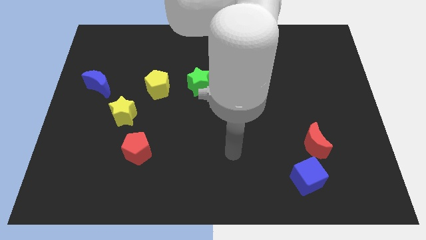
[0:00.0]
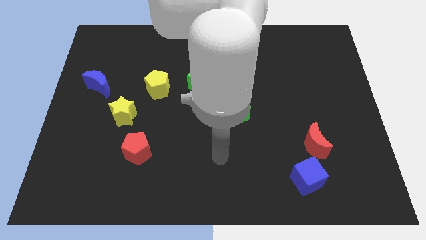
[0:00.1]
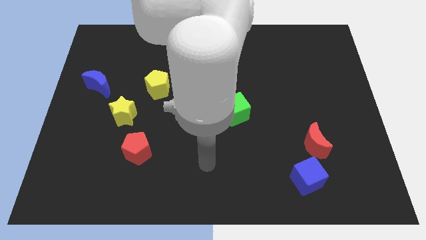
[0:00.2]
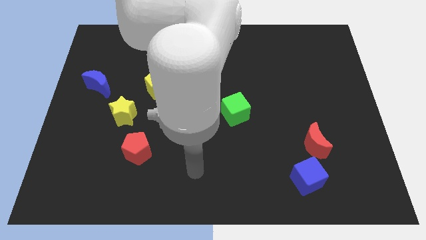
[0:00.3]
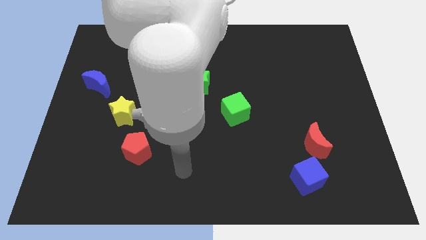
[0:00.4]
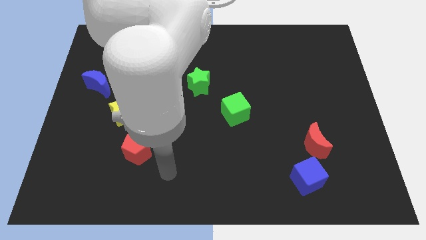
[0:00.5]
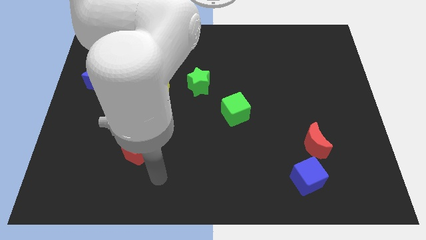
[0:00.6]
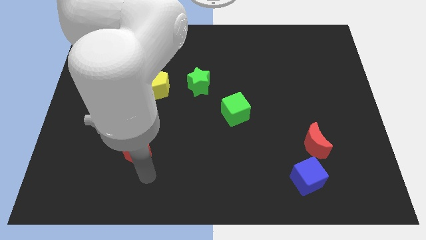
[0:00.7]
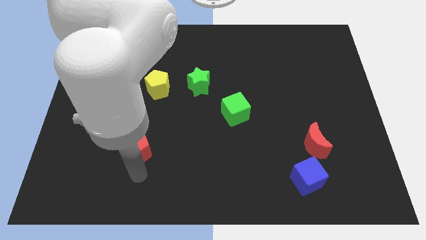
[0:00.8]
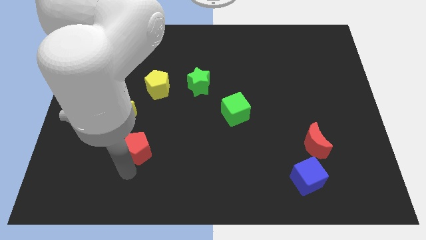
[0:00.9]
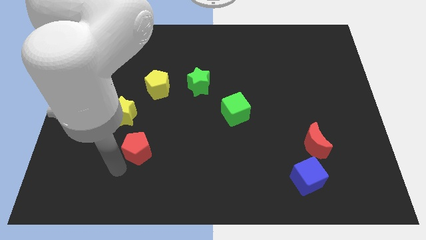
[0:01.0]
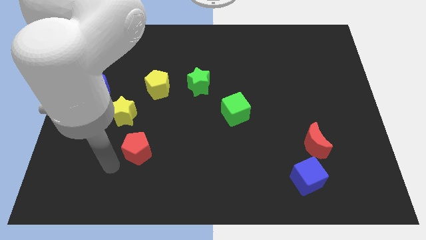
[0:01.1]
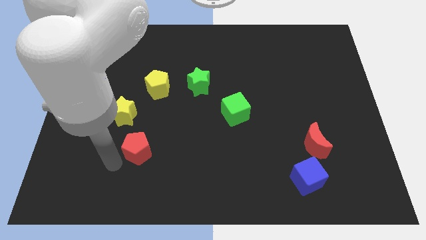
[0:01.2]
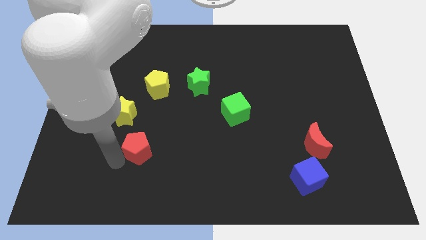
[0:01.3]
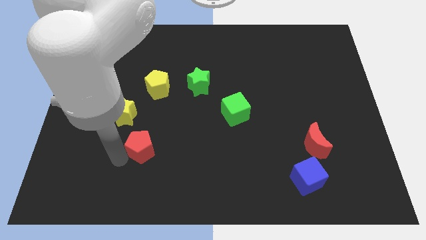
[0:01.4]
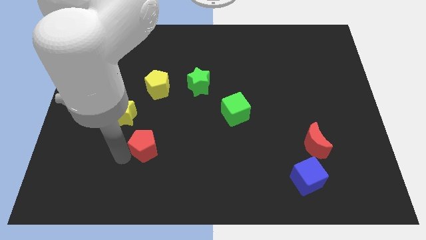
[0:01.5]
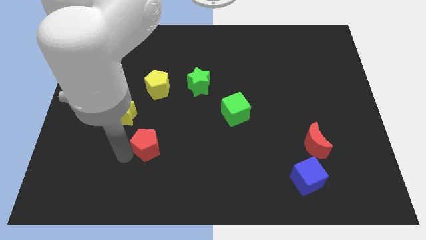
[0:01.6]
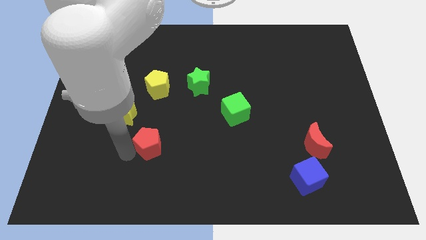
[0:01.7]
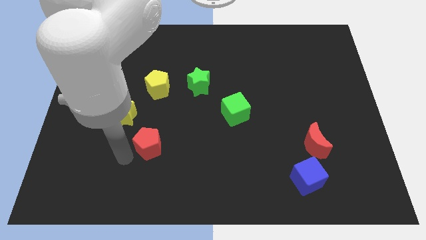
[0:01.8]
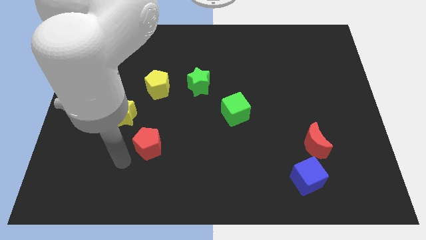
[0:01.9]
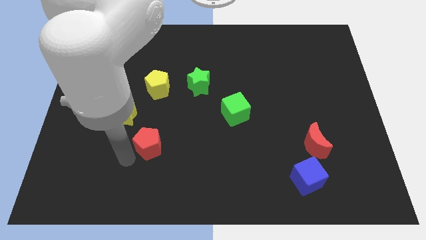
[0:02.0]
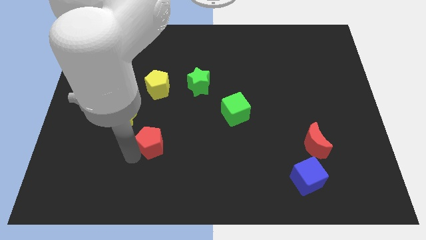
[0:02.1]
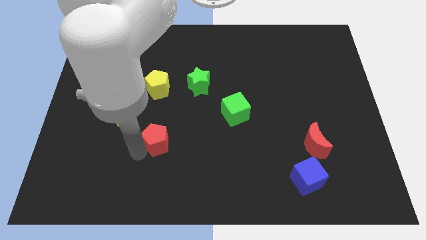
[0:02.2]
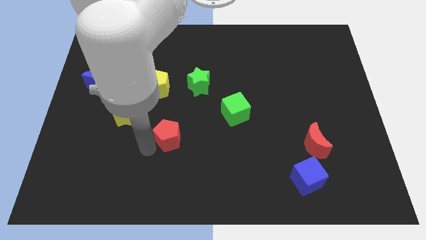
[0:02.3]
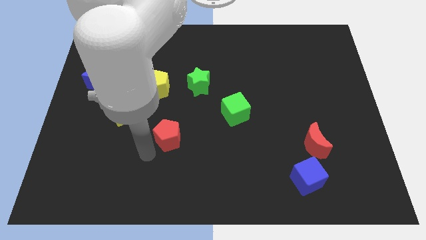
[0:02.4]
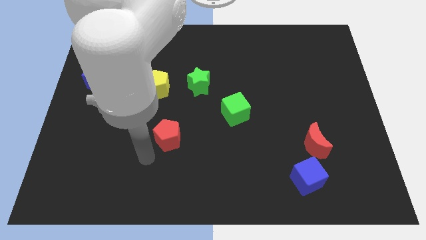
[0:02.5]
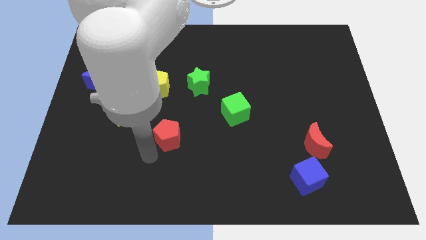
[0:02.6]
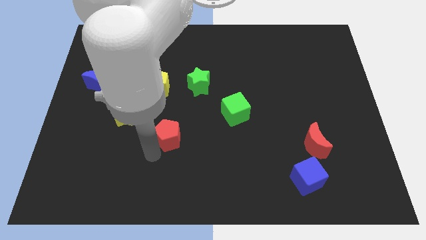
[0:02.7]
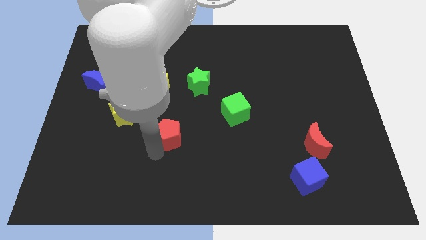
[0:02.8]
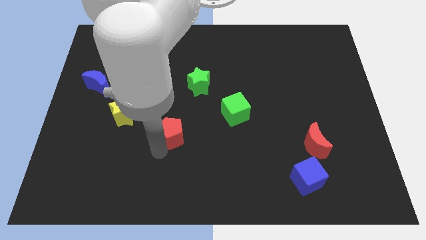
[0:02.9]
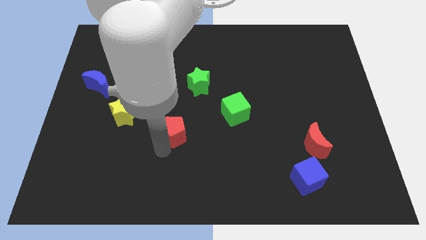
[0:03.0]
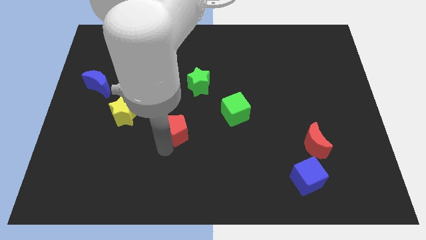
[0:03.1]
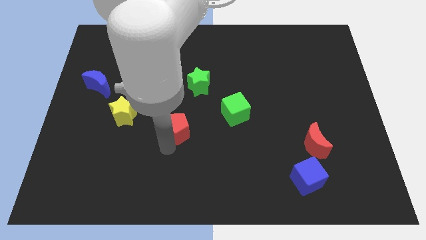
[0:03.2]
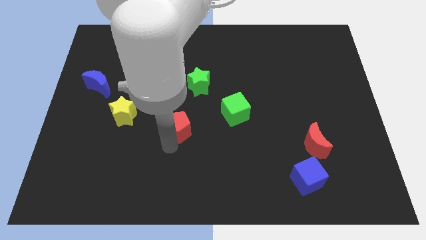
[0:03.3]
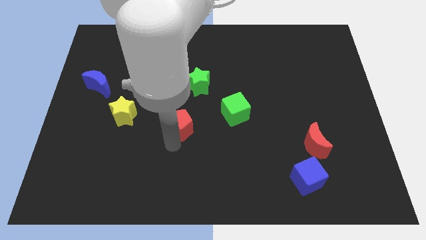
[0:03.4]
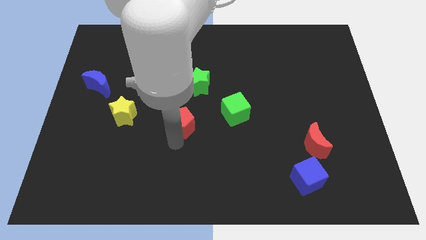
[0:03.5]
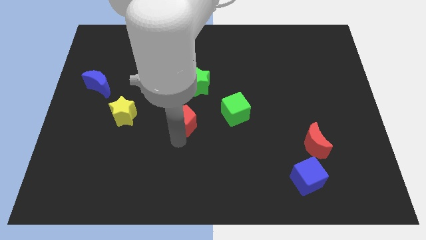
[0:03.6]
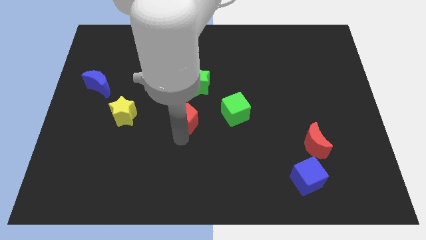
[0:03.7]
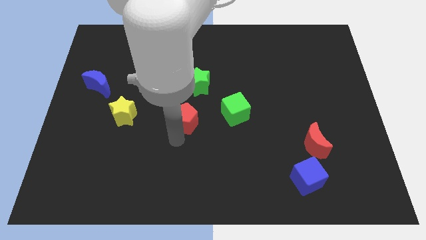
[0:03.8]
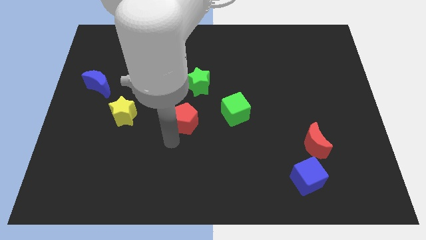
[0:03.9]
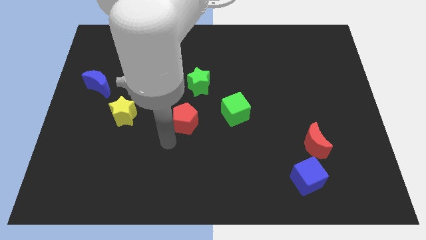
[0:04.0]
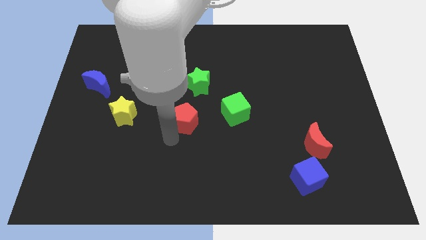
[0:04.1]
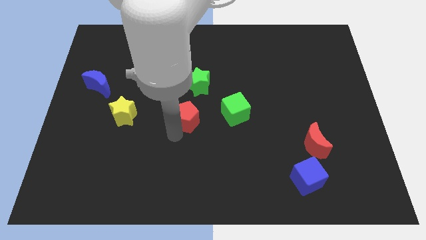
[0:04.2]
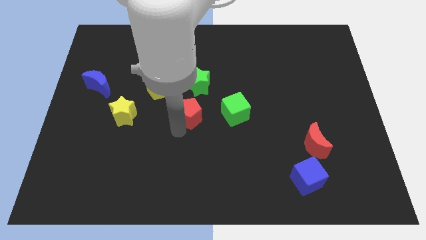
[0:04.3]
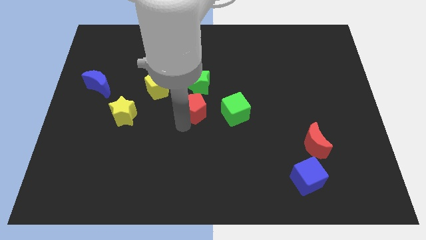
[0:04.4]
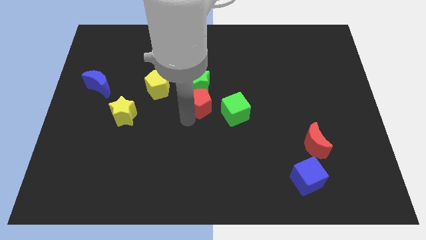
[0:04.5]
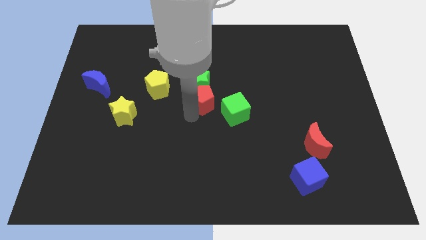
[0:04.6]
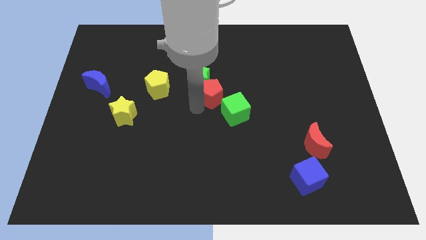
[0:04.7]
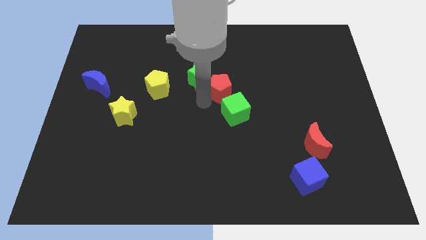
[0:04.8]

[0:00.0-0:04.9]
slide the red pentagon to the right side of the green star

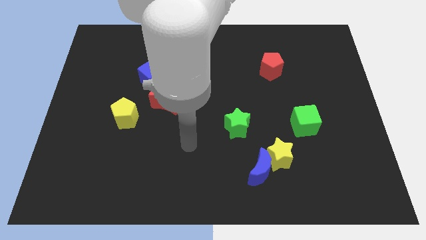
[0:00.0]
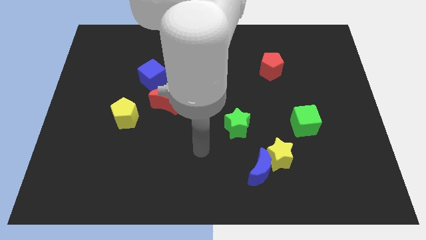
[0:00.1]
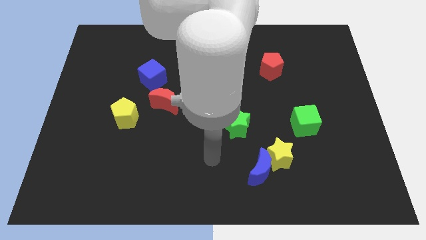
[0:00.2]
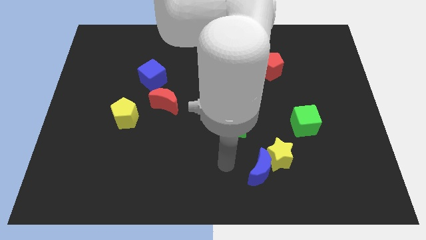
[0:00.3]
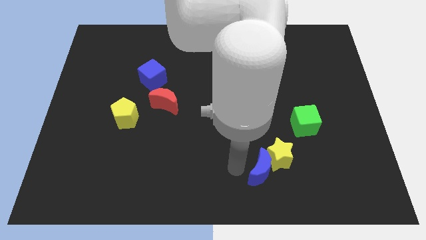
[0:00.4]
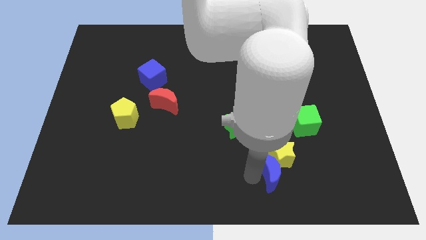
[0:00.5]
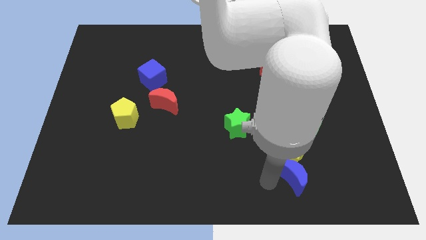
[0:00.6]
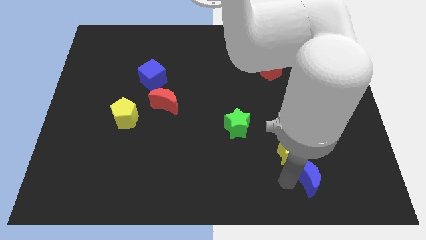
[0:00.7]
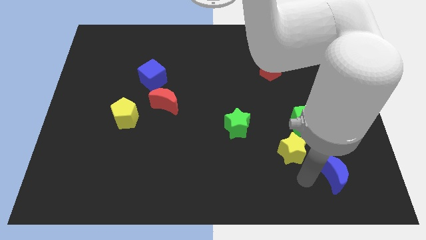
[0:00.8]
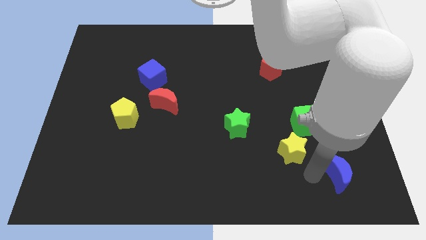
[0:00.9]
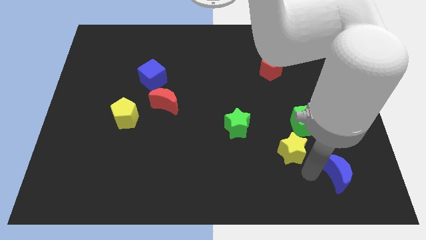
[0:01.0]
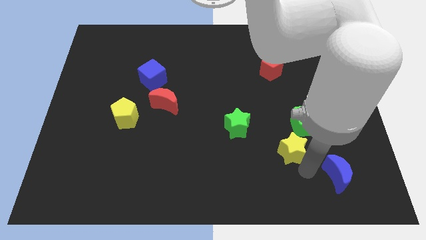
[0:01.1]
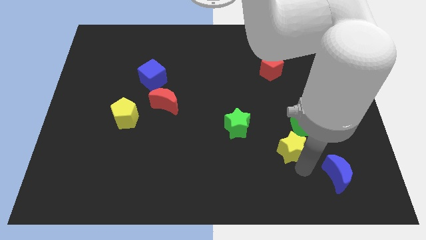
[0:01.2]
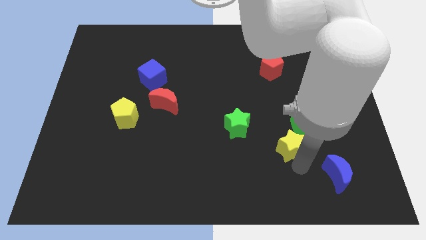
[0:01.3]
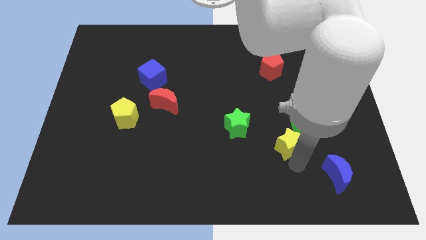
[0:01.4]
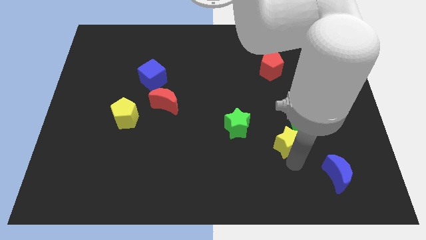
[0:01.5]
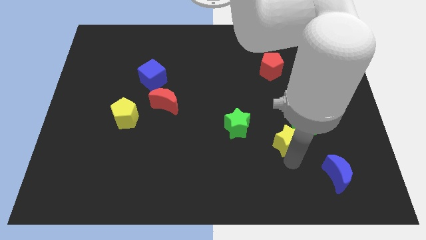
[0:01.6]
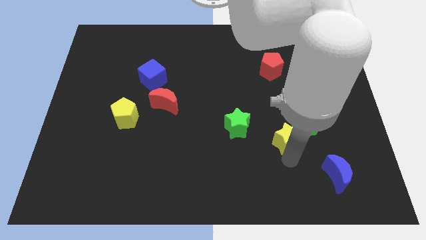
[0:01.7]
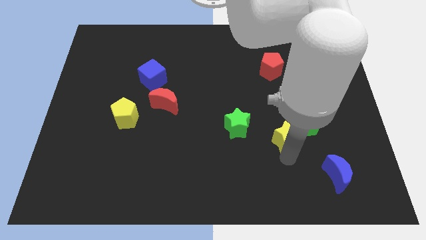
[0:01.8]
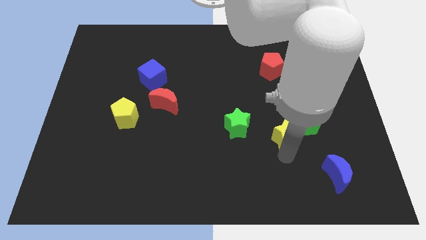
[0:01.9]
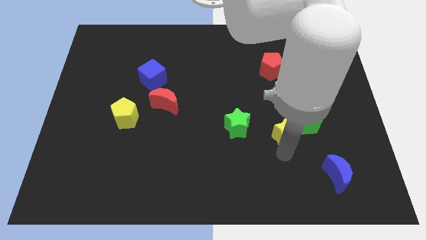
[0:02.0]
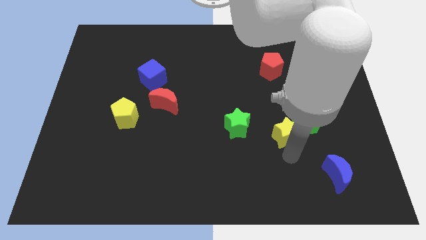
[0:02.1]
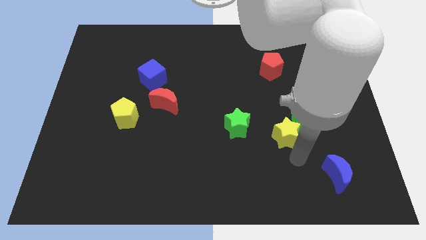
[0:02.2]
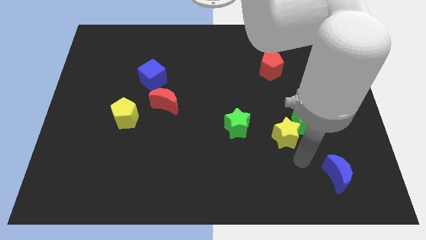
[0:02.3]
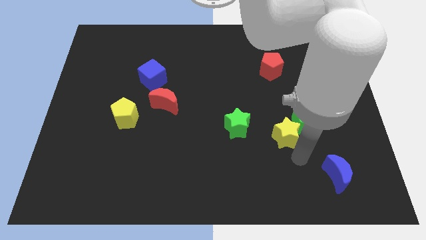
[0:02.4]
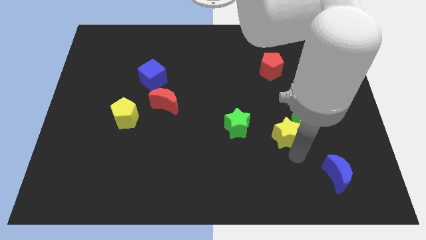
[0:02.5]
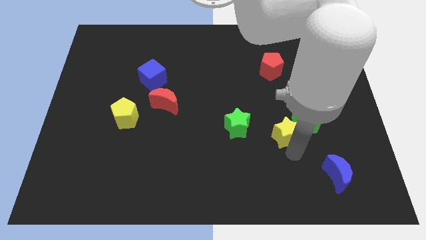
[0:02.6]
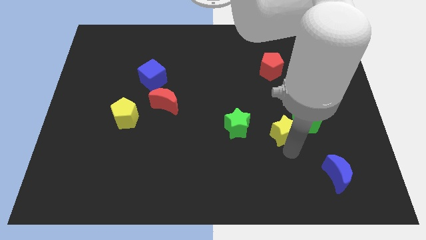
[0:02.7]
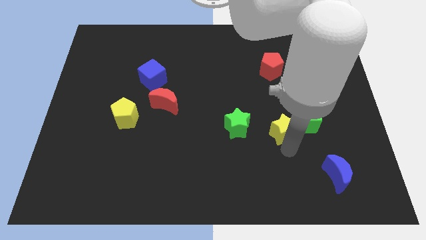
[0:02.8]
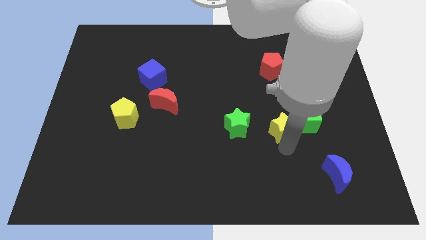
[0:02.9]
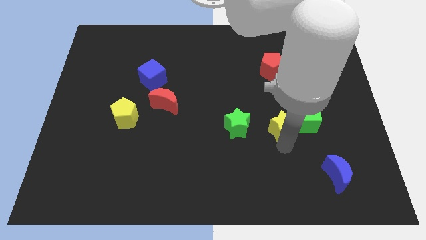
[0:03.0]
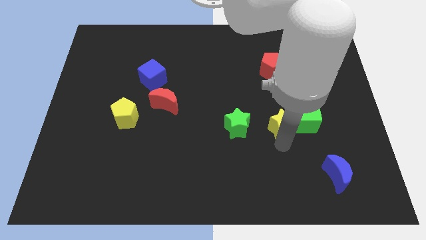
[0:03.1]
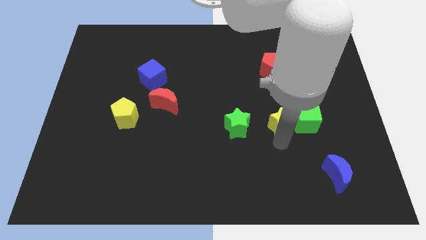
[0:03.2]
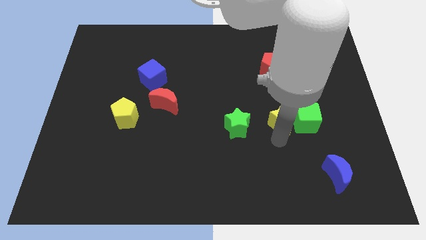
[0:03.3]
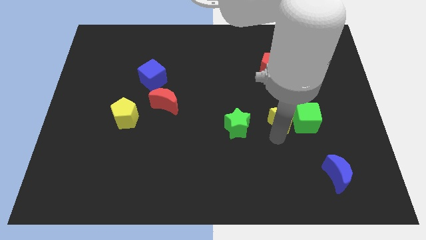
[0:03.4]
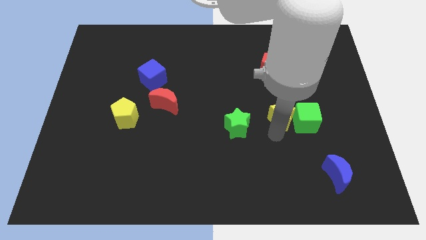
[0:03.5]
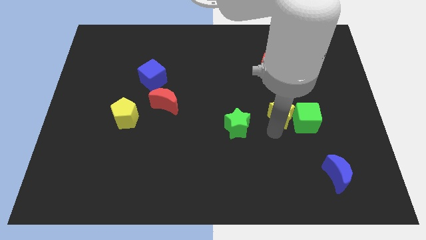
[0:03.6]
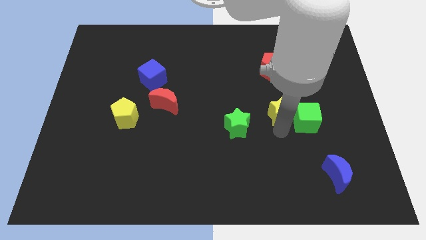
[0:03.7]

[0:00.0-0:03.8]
move the yellow star to the top right of the green star
